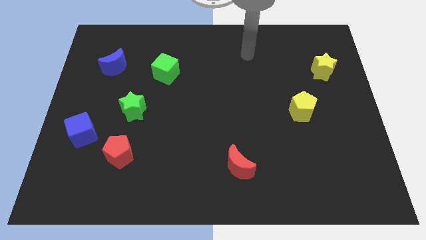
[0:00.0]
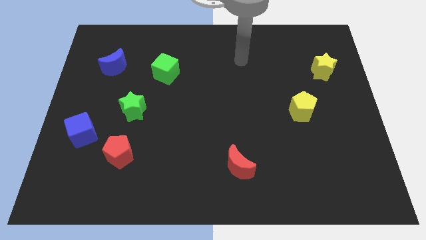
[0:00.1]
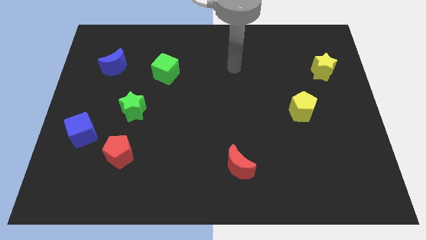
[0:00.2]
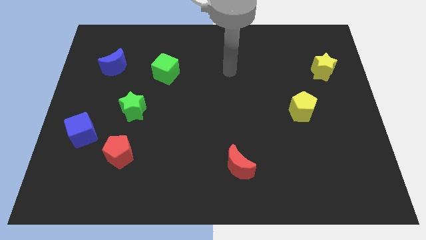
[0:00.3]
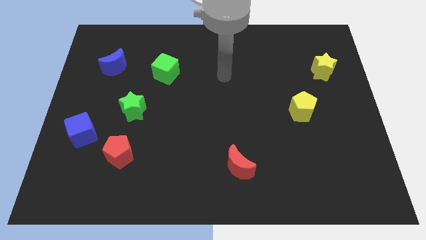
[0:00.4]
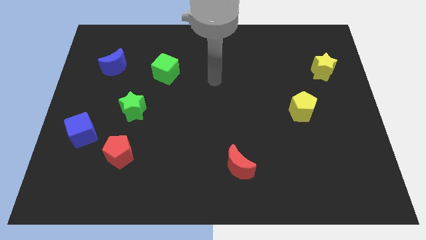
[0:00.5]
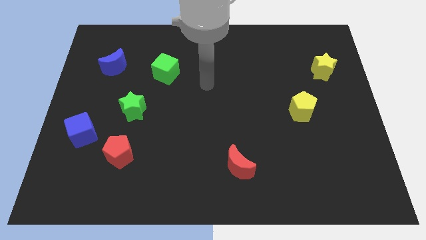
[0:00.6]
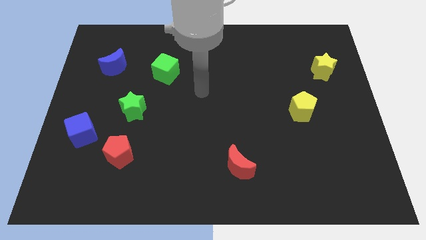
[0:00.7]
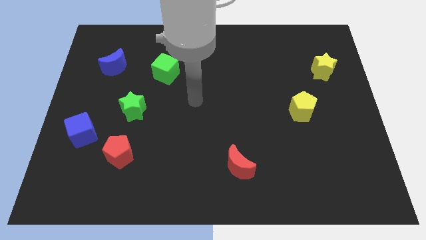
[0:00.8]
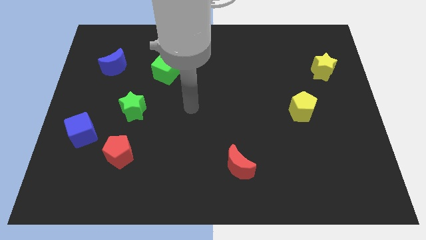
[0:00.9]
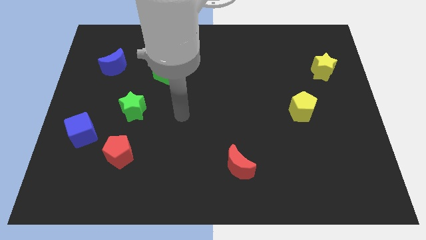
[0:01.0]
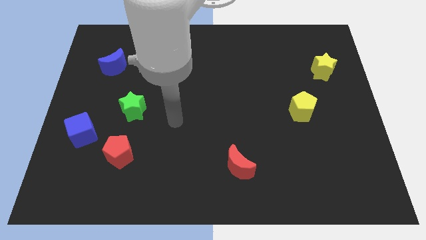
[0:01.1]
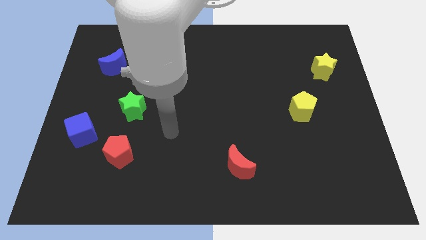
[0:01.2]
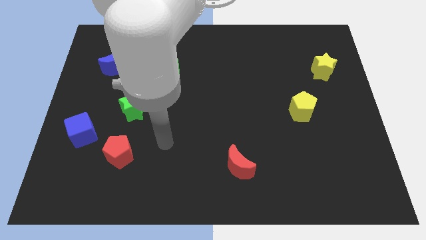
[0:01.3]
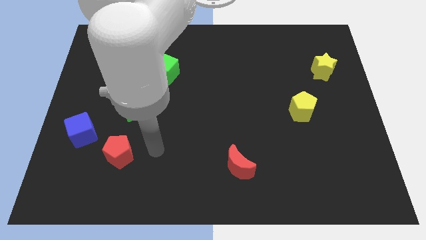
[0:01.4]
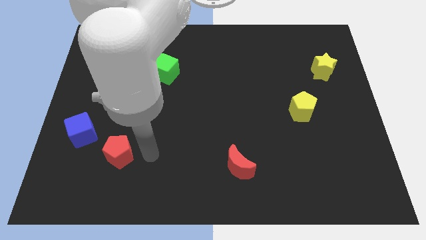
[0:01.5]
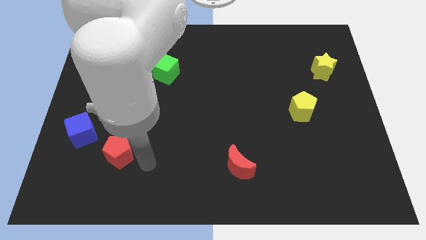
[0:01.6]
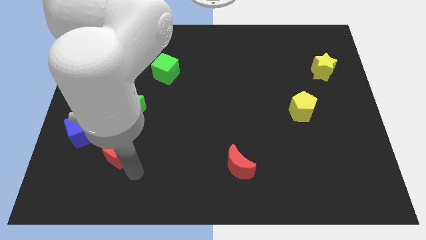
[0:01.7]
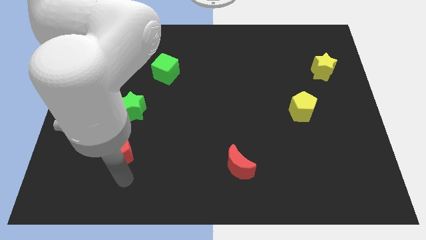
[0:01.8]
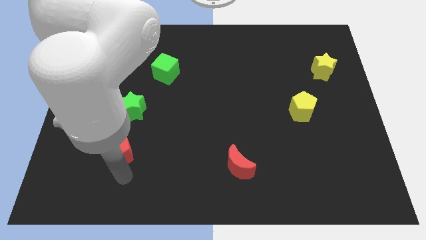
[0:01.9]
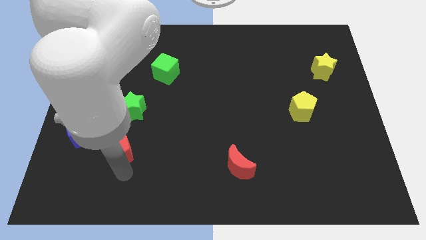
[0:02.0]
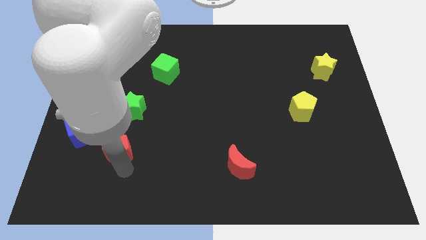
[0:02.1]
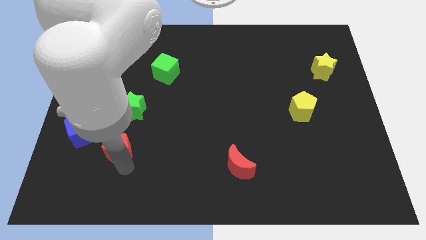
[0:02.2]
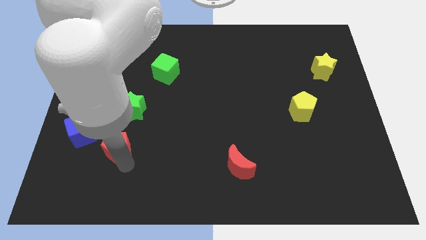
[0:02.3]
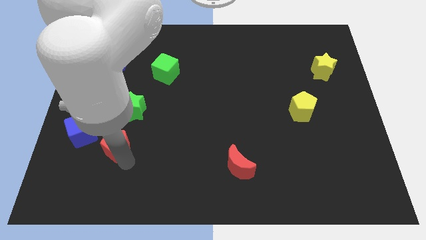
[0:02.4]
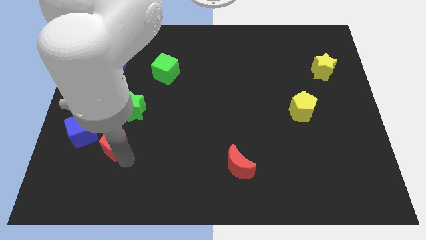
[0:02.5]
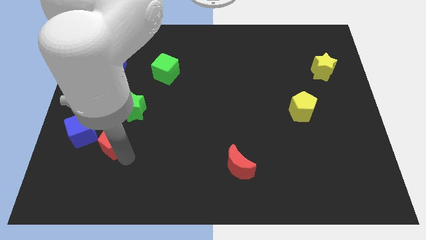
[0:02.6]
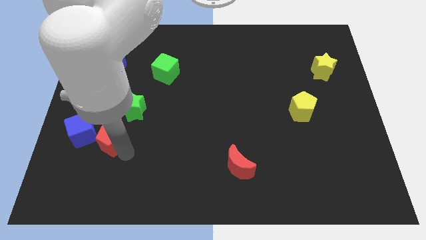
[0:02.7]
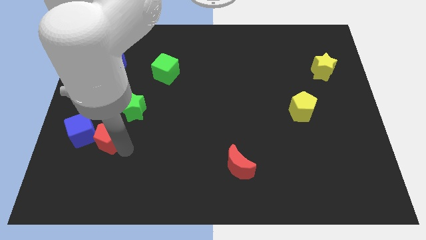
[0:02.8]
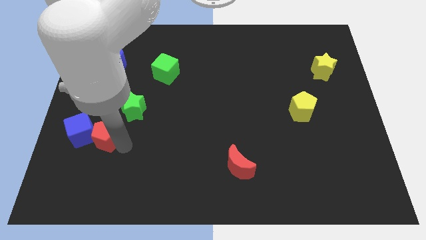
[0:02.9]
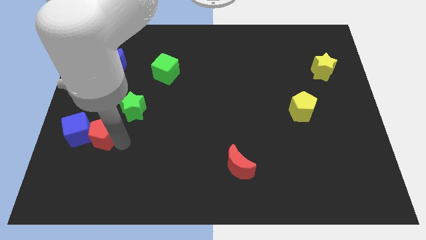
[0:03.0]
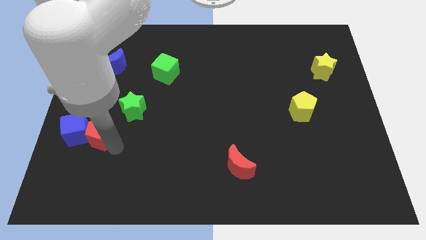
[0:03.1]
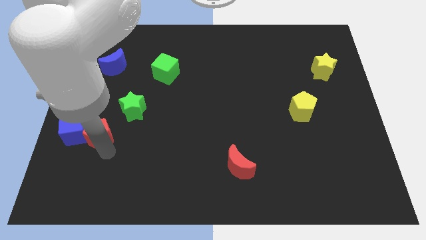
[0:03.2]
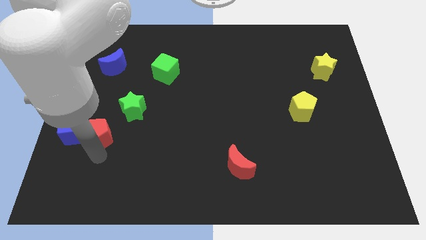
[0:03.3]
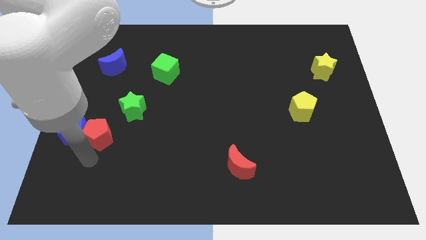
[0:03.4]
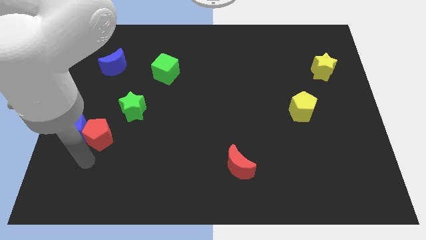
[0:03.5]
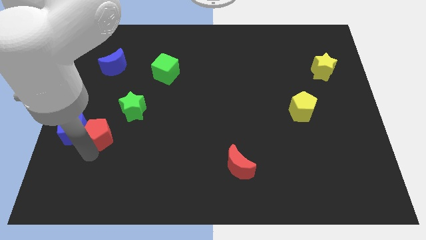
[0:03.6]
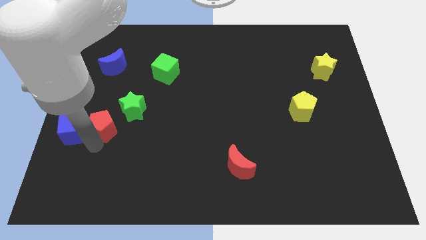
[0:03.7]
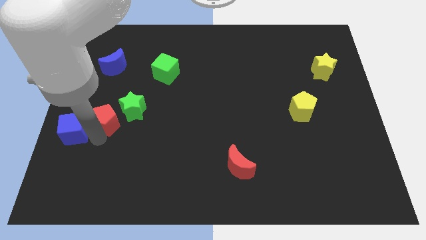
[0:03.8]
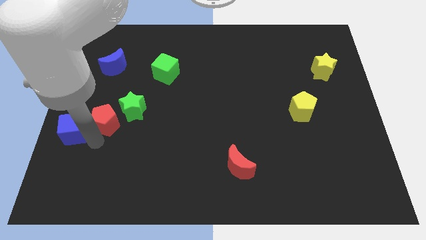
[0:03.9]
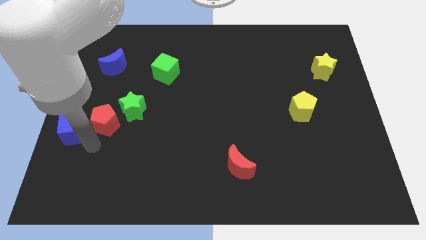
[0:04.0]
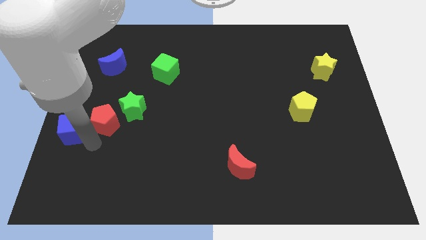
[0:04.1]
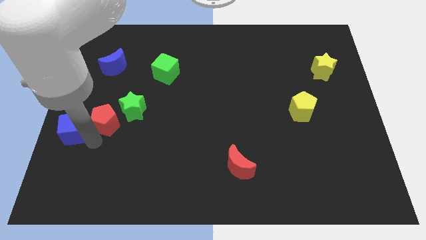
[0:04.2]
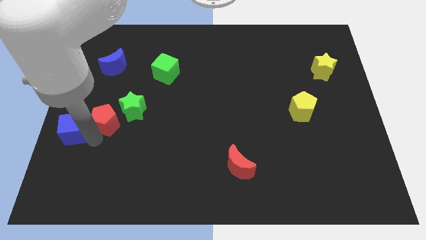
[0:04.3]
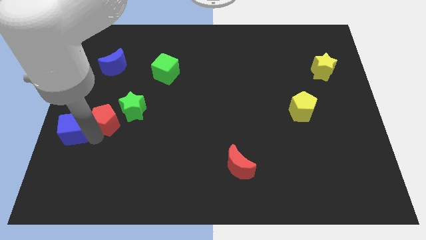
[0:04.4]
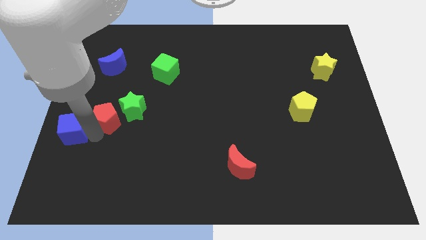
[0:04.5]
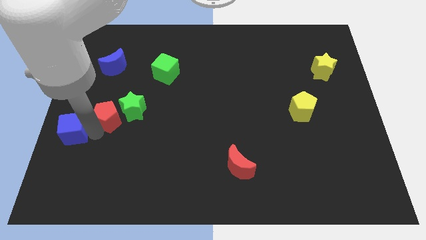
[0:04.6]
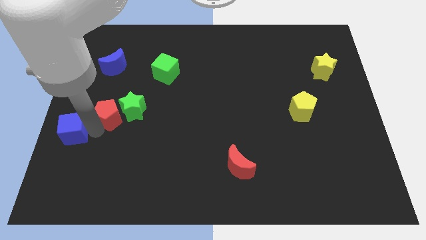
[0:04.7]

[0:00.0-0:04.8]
move the red pentagon to the bottom side of the blue moon

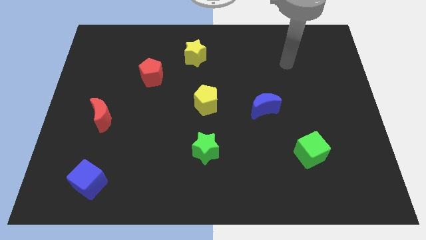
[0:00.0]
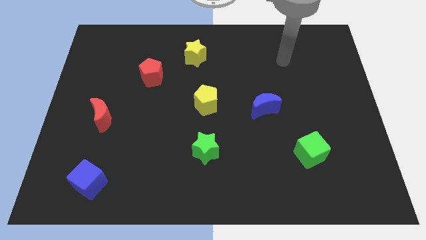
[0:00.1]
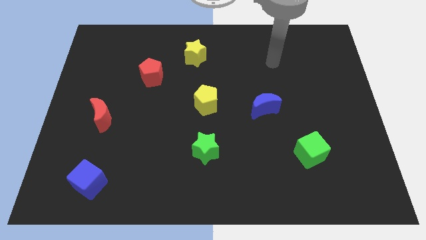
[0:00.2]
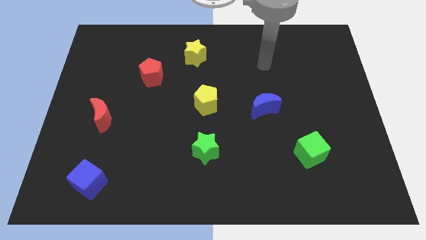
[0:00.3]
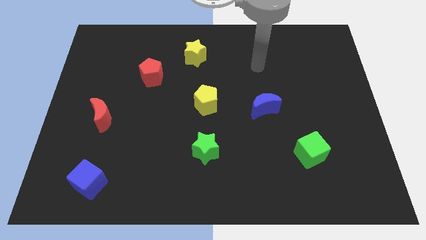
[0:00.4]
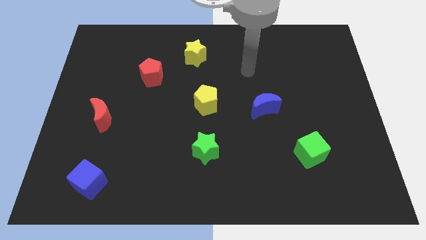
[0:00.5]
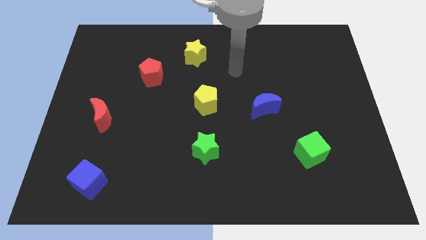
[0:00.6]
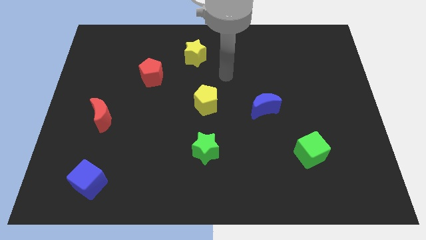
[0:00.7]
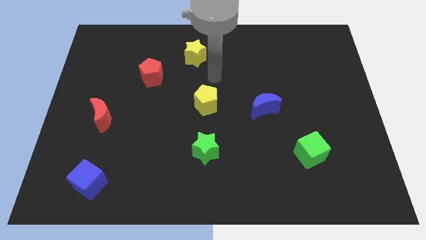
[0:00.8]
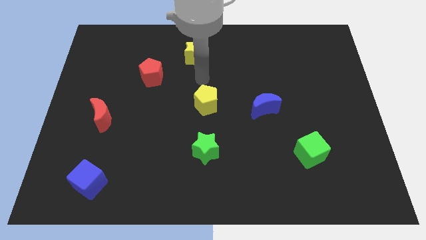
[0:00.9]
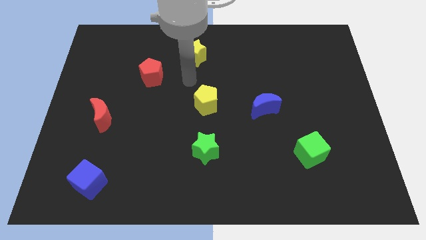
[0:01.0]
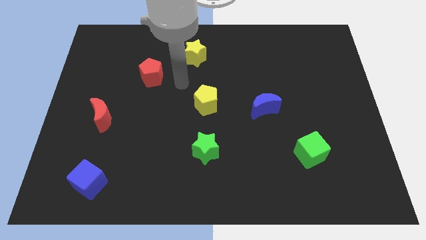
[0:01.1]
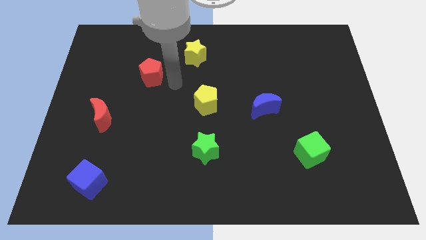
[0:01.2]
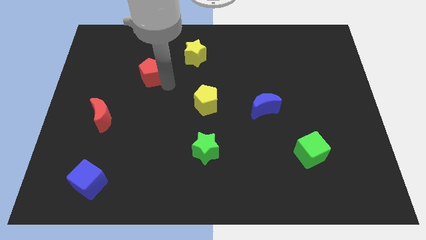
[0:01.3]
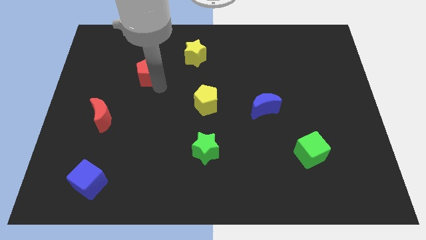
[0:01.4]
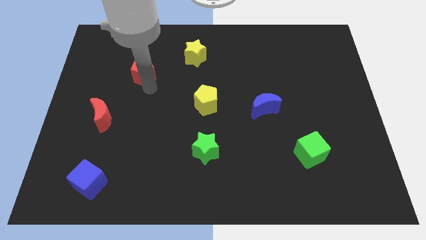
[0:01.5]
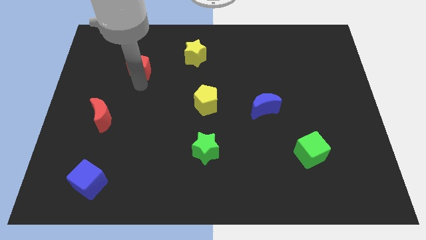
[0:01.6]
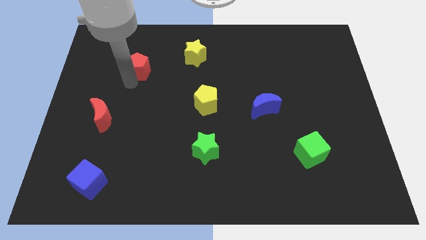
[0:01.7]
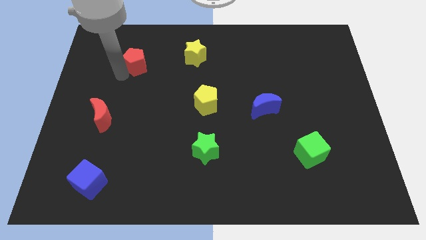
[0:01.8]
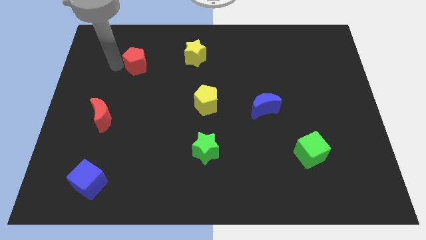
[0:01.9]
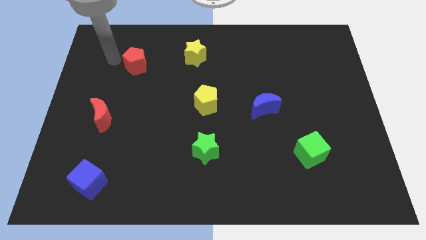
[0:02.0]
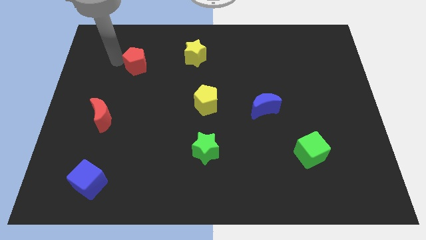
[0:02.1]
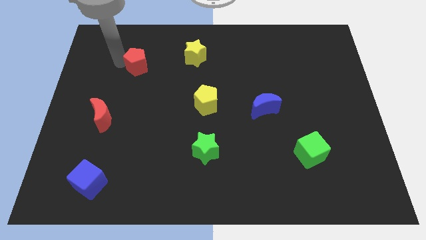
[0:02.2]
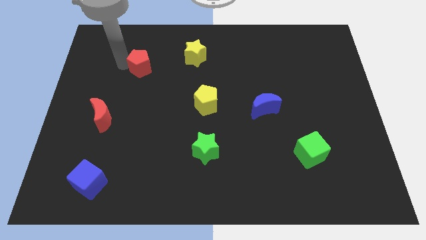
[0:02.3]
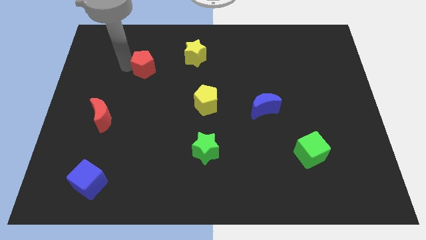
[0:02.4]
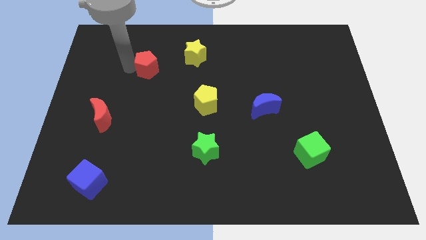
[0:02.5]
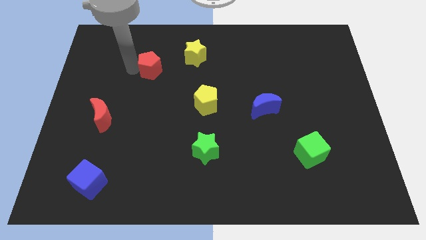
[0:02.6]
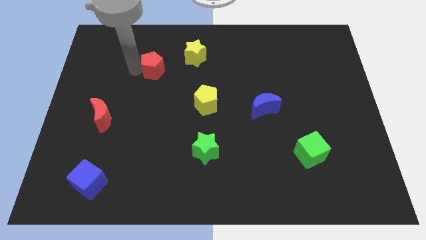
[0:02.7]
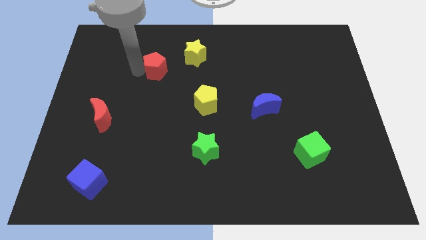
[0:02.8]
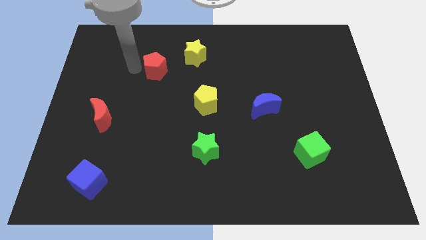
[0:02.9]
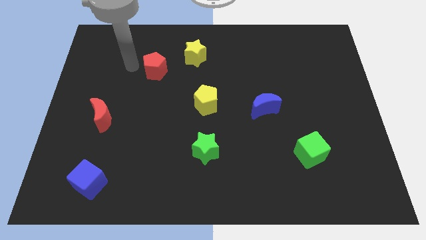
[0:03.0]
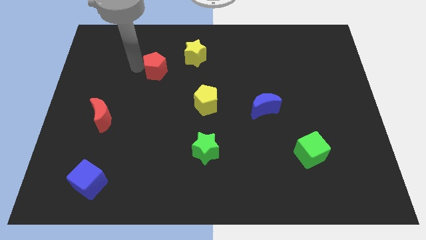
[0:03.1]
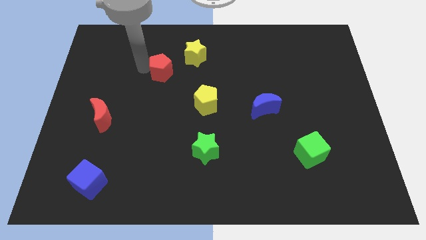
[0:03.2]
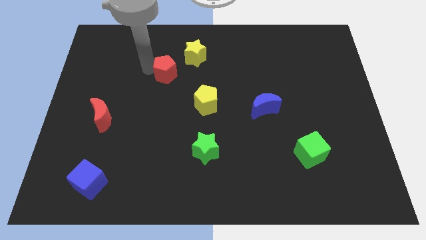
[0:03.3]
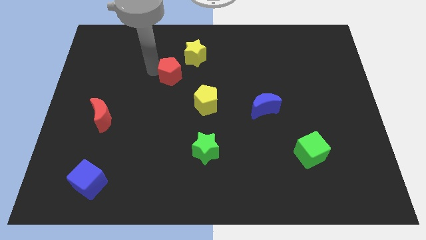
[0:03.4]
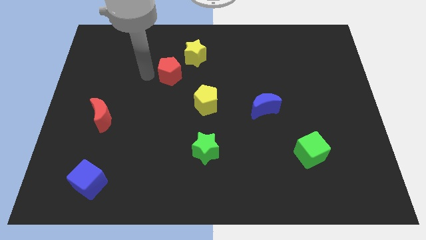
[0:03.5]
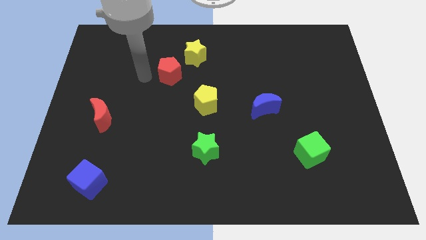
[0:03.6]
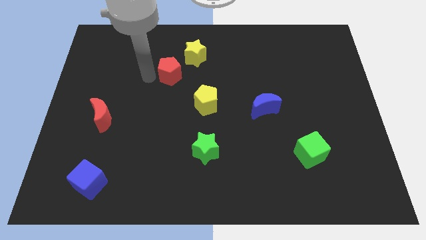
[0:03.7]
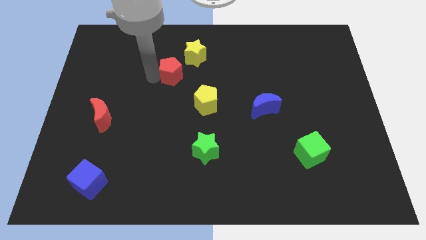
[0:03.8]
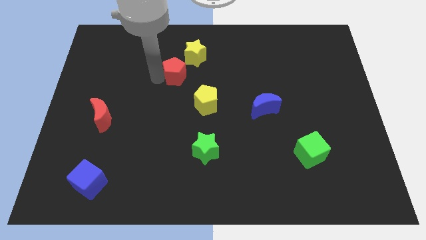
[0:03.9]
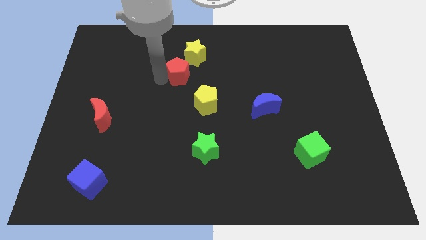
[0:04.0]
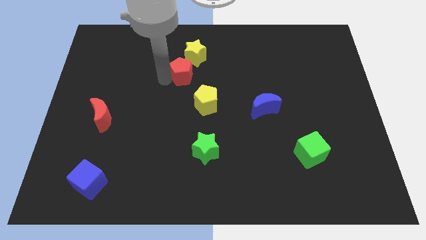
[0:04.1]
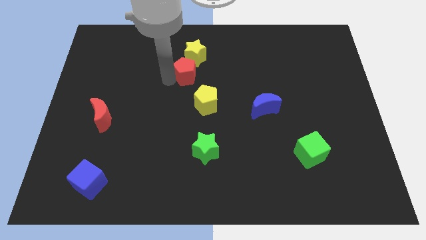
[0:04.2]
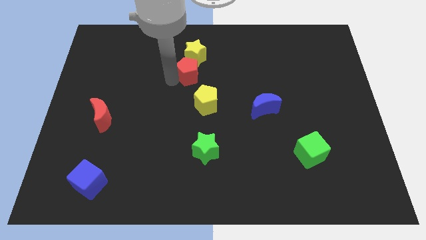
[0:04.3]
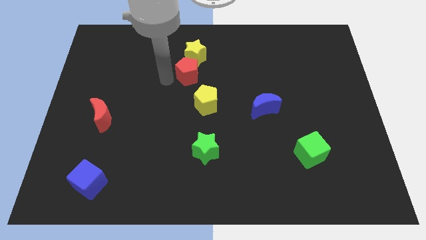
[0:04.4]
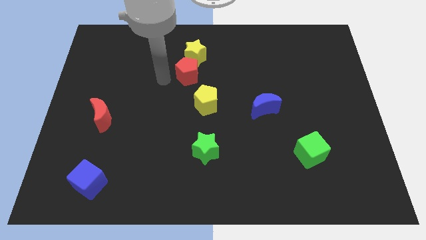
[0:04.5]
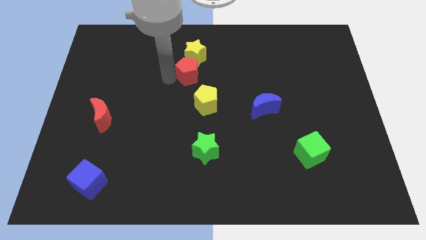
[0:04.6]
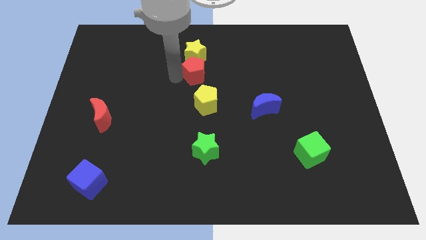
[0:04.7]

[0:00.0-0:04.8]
put the red pentagon diagonally down and to the right of the yellow star
